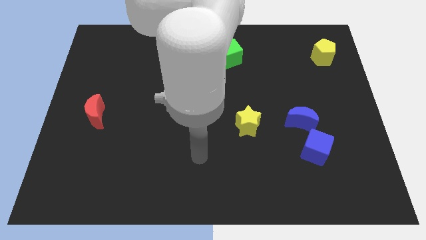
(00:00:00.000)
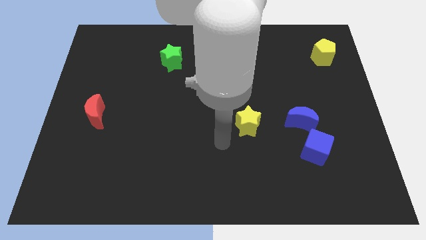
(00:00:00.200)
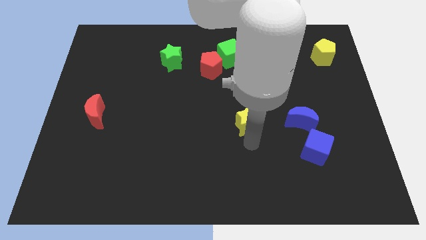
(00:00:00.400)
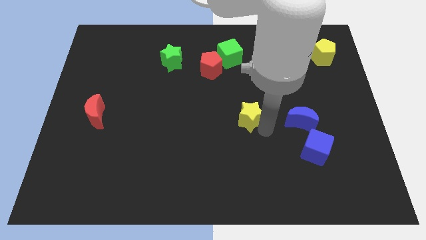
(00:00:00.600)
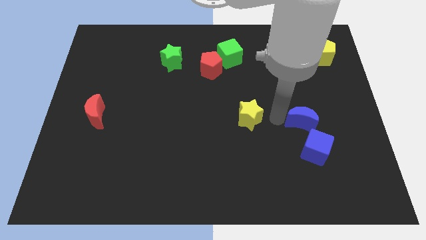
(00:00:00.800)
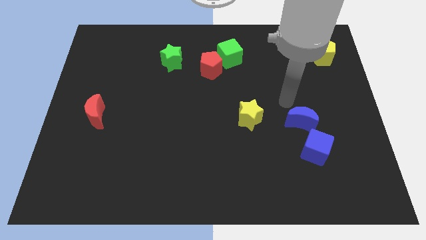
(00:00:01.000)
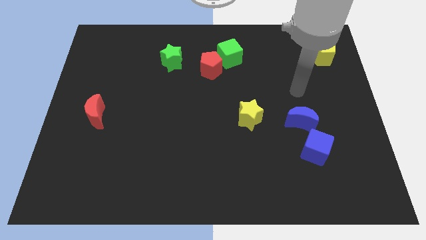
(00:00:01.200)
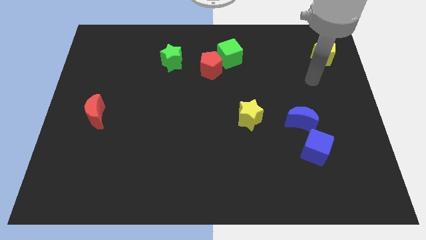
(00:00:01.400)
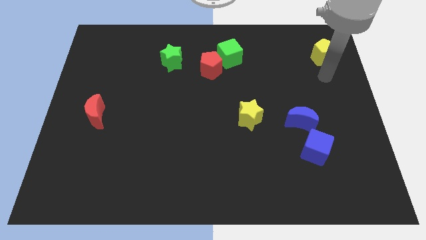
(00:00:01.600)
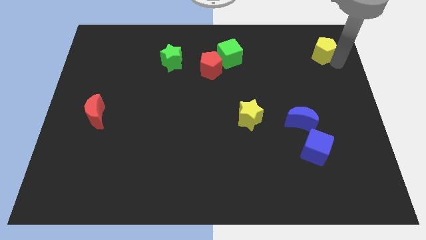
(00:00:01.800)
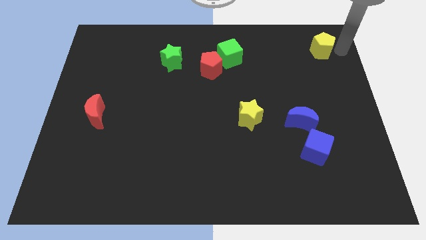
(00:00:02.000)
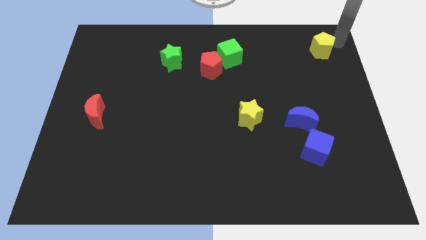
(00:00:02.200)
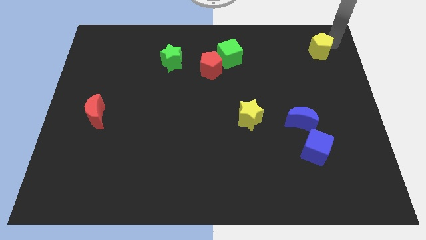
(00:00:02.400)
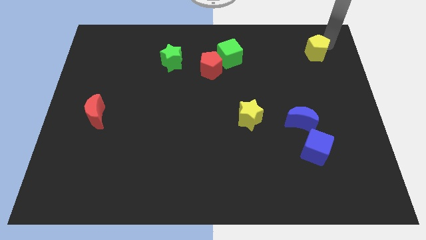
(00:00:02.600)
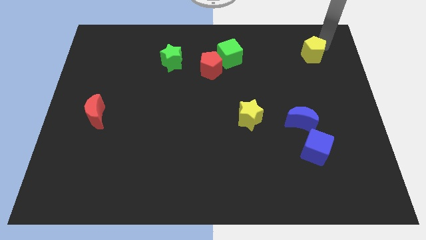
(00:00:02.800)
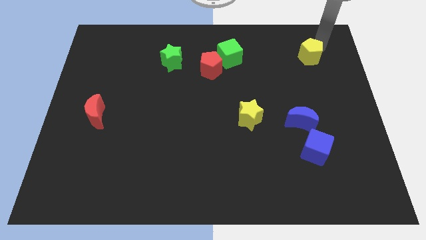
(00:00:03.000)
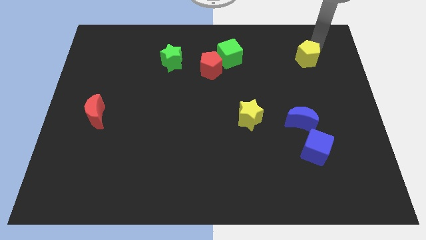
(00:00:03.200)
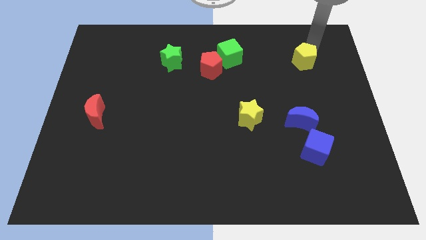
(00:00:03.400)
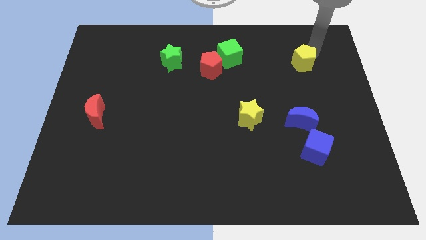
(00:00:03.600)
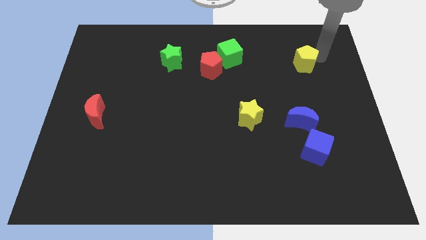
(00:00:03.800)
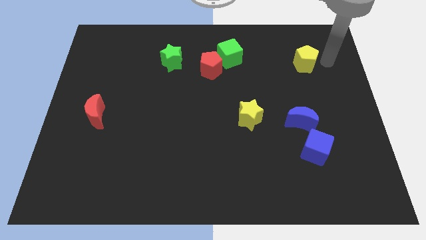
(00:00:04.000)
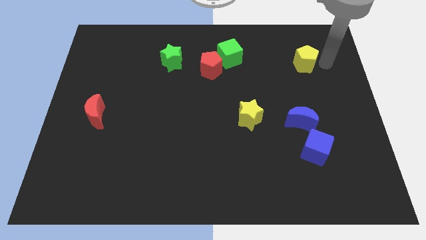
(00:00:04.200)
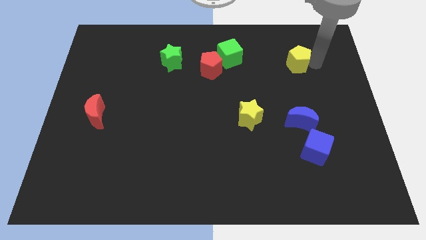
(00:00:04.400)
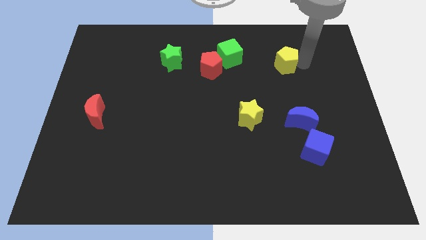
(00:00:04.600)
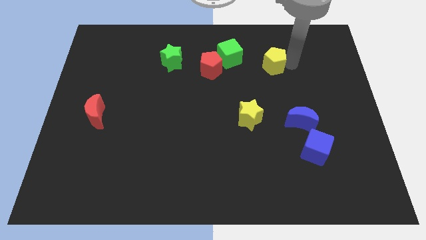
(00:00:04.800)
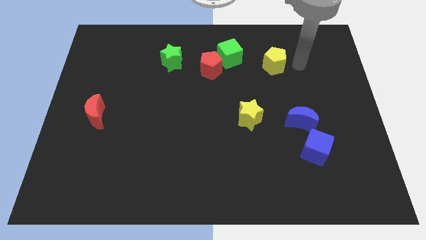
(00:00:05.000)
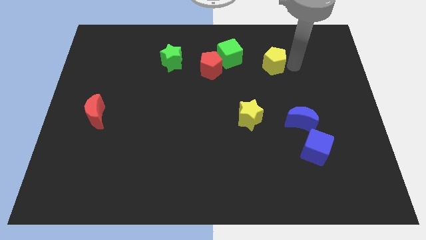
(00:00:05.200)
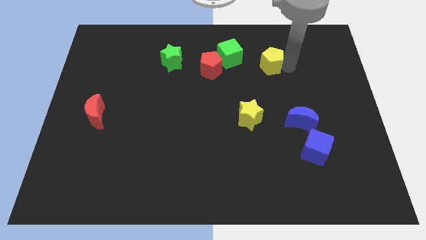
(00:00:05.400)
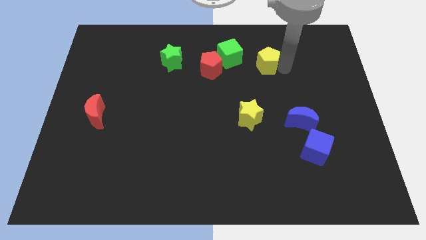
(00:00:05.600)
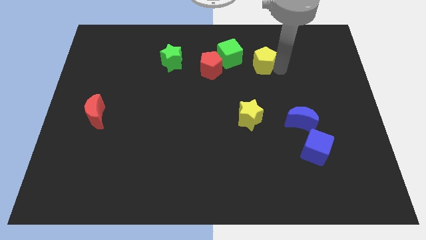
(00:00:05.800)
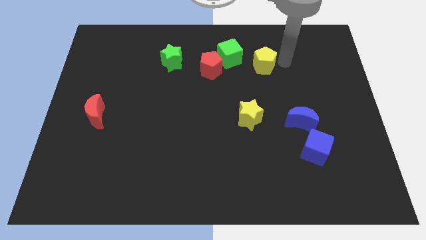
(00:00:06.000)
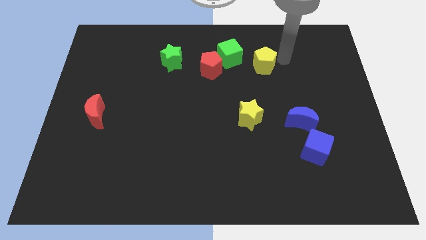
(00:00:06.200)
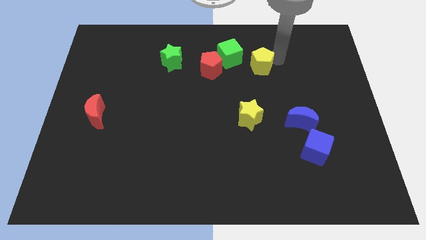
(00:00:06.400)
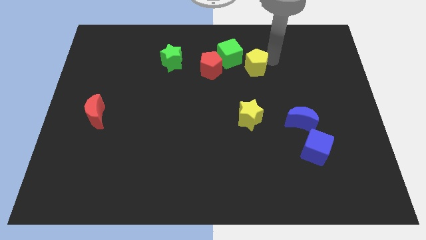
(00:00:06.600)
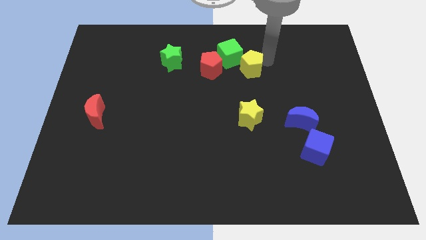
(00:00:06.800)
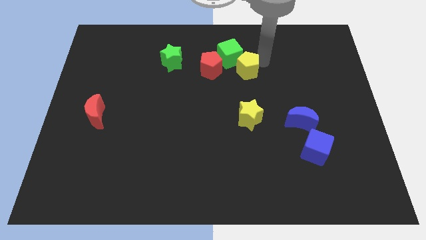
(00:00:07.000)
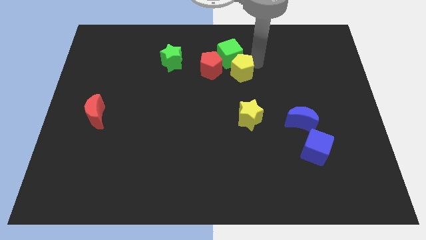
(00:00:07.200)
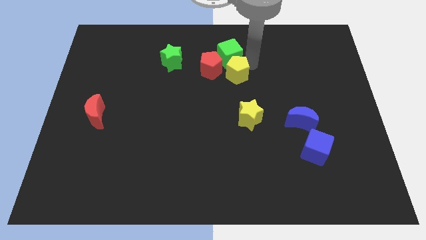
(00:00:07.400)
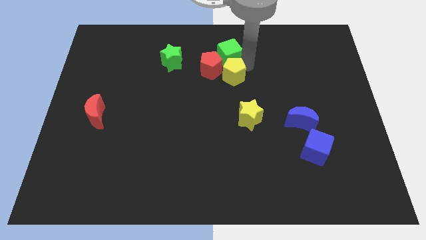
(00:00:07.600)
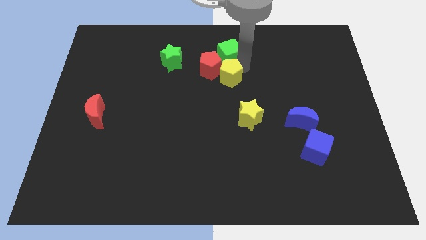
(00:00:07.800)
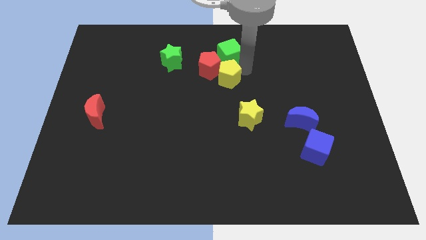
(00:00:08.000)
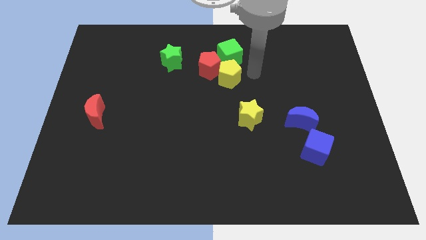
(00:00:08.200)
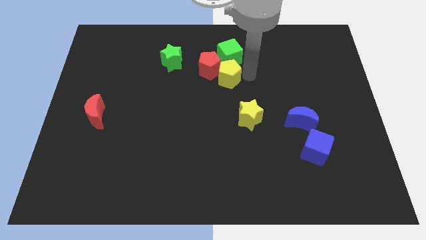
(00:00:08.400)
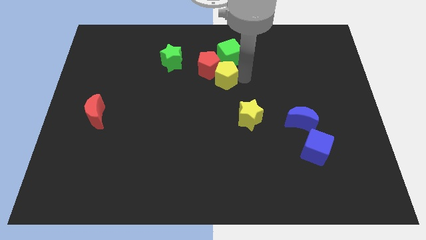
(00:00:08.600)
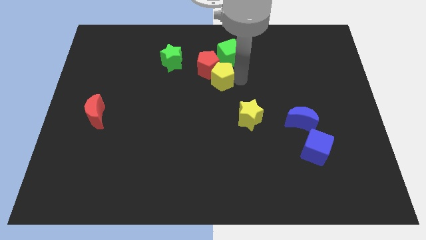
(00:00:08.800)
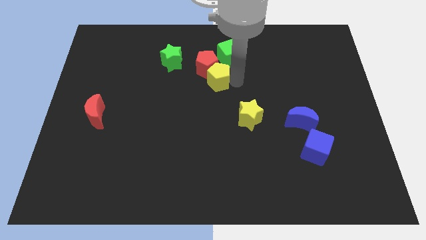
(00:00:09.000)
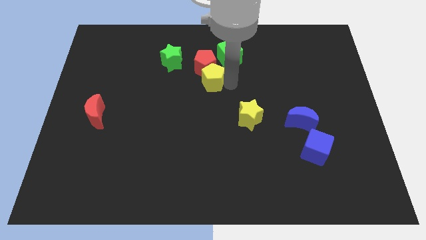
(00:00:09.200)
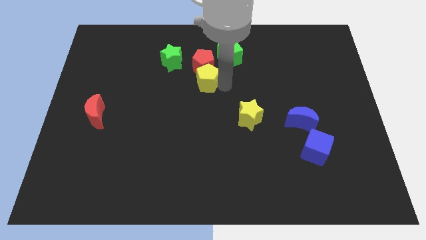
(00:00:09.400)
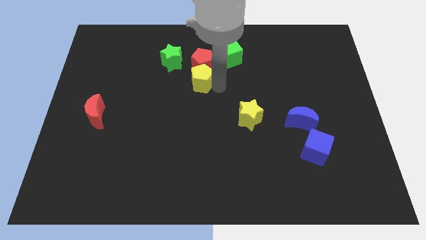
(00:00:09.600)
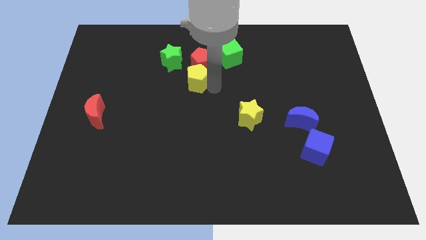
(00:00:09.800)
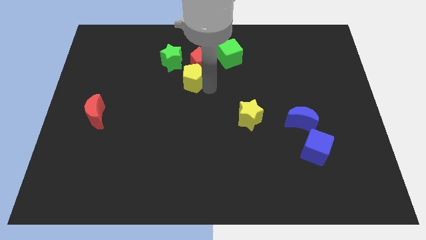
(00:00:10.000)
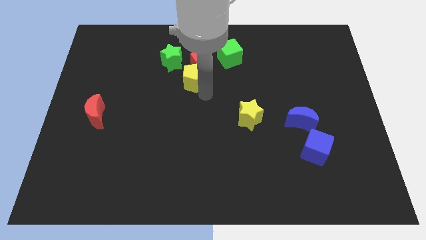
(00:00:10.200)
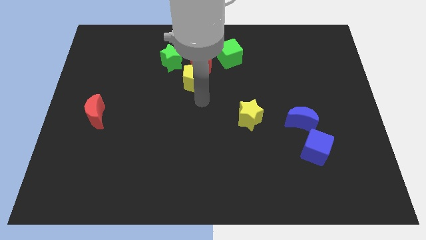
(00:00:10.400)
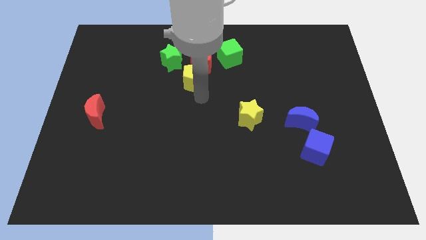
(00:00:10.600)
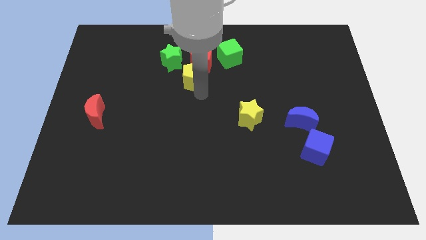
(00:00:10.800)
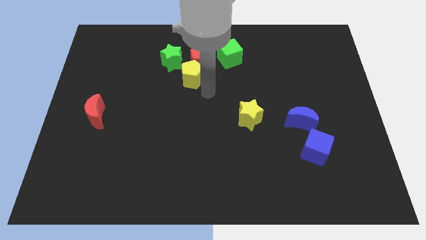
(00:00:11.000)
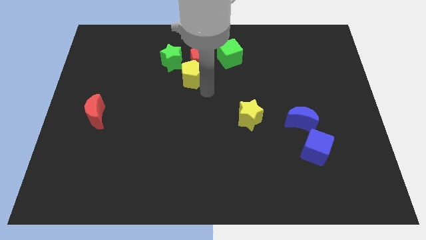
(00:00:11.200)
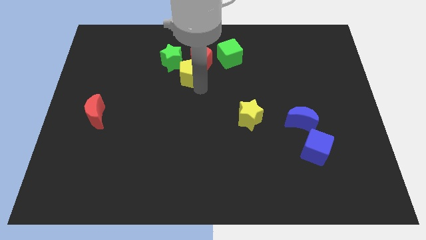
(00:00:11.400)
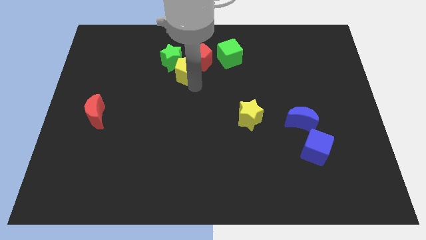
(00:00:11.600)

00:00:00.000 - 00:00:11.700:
put the yellow pentagon next to the green star
